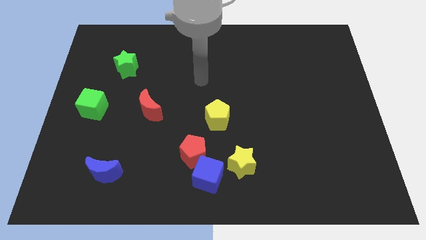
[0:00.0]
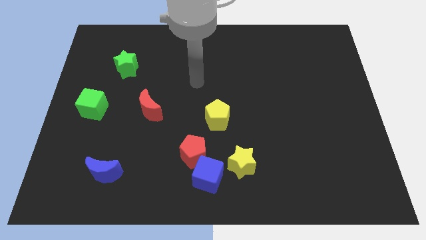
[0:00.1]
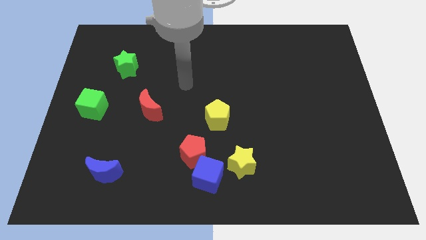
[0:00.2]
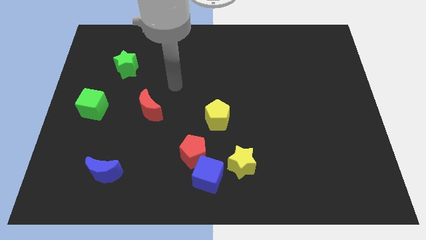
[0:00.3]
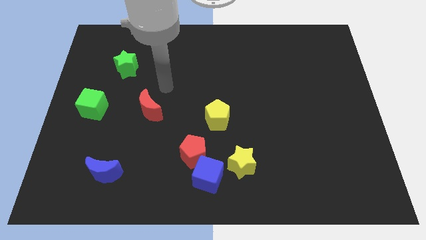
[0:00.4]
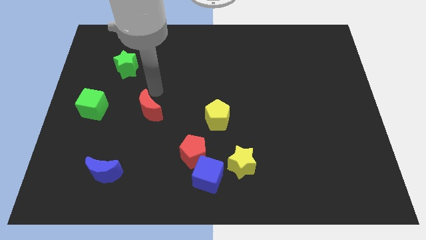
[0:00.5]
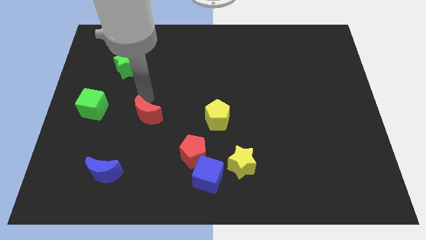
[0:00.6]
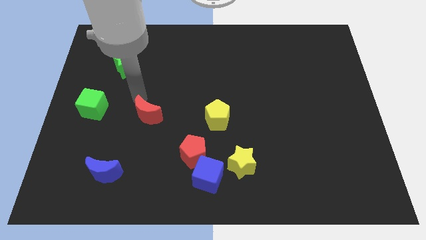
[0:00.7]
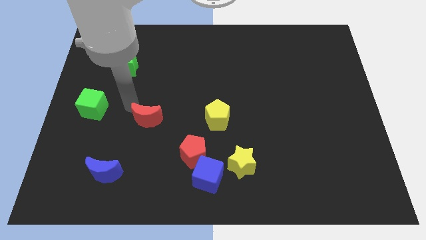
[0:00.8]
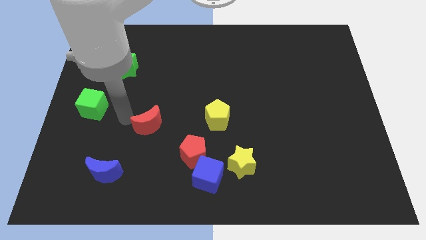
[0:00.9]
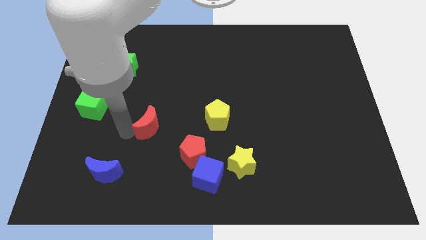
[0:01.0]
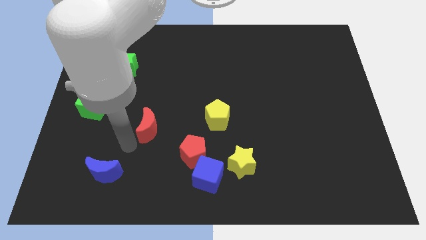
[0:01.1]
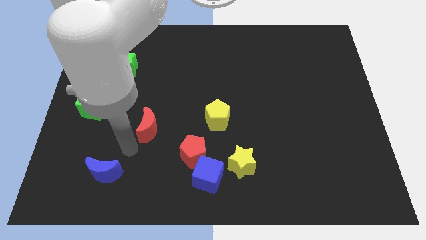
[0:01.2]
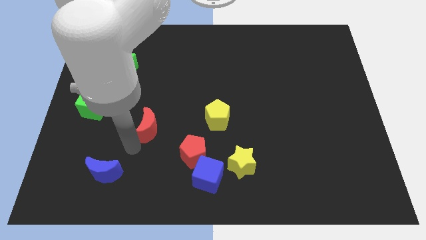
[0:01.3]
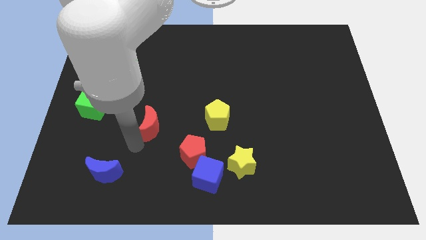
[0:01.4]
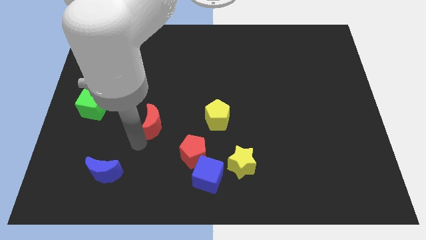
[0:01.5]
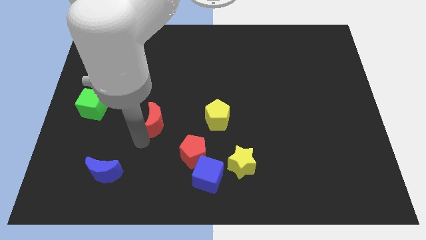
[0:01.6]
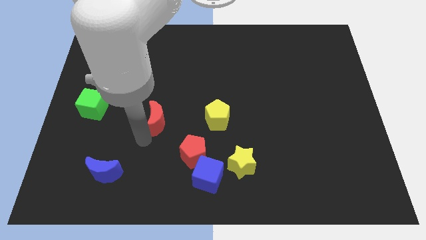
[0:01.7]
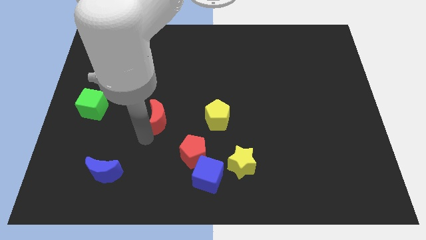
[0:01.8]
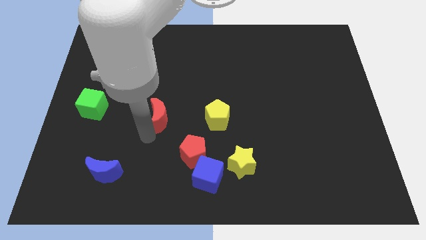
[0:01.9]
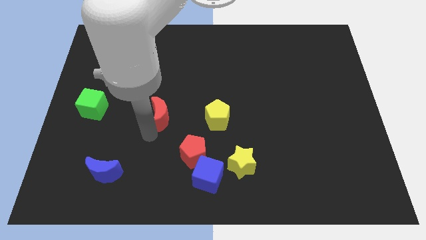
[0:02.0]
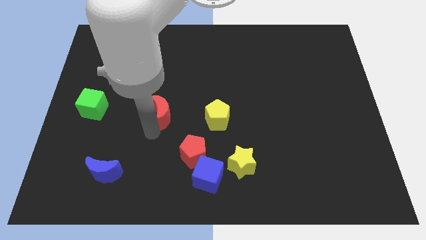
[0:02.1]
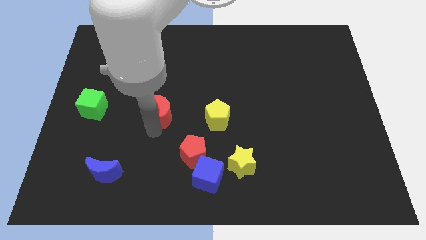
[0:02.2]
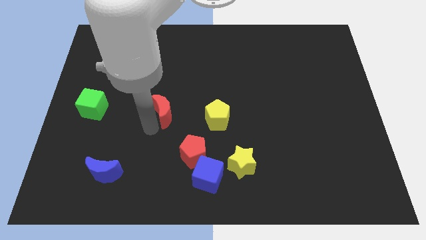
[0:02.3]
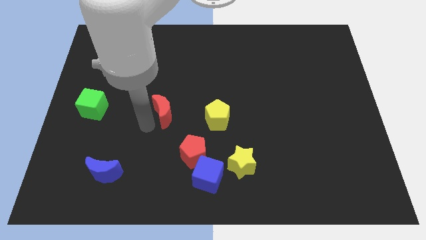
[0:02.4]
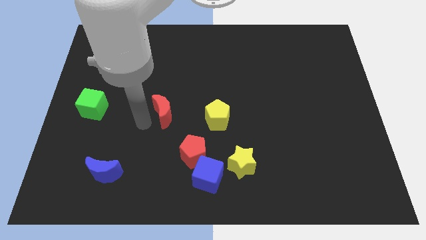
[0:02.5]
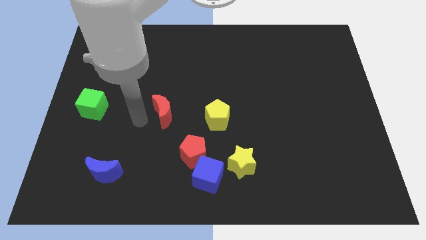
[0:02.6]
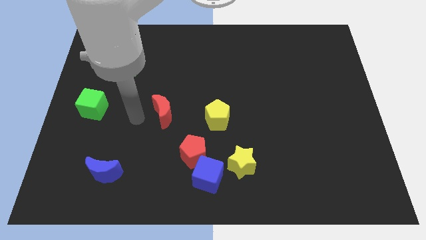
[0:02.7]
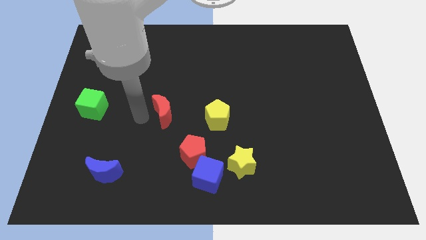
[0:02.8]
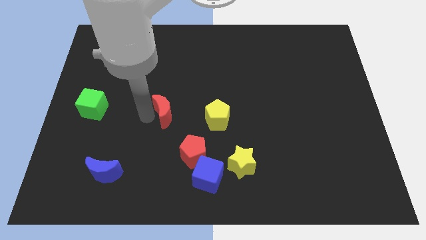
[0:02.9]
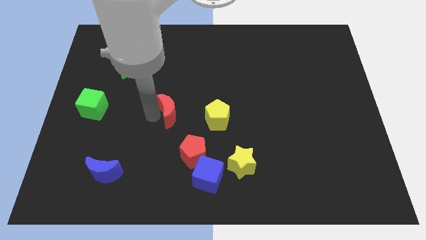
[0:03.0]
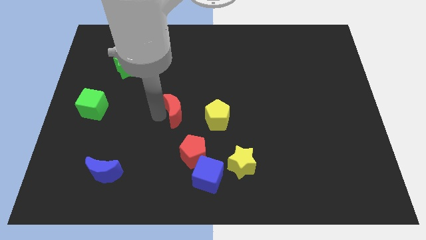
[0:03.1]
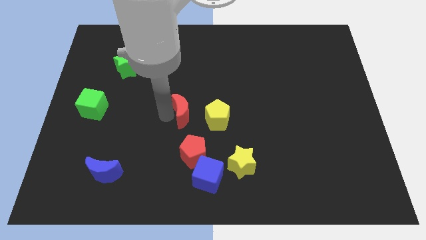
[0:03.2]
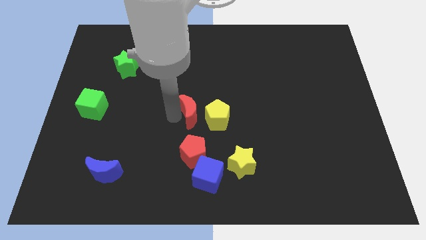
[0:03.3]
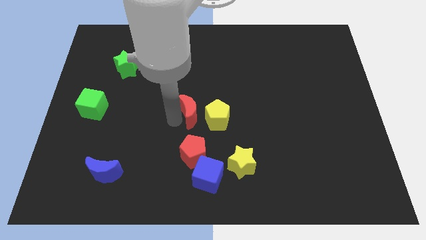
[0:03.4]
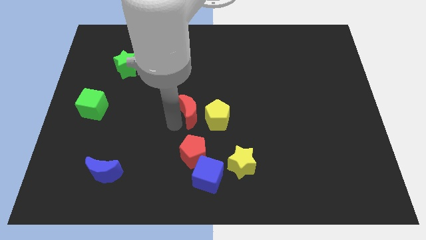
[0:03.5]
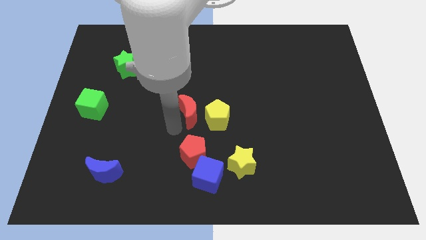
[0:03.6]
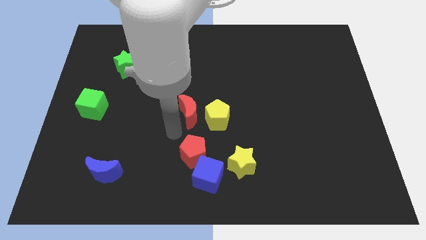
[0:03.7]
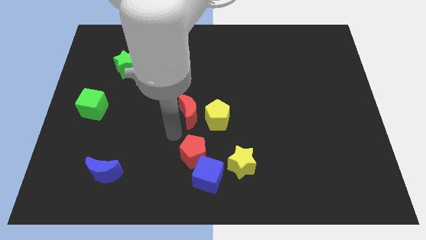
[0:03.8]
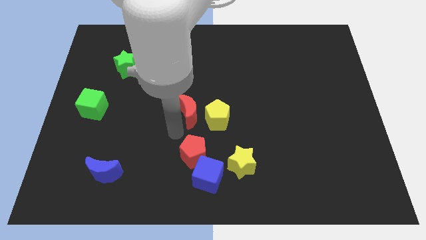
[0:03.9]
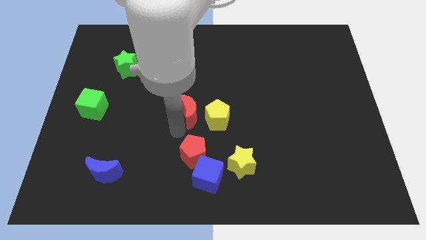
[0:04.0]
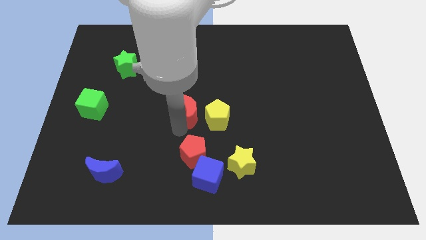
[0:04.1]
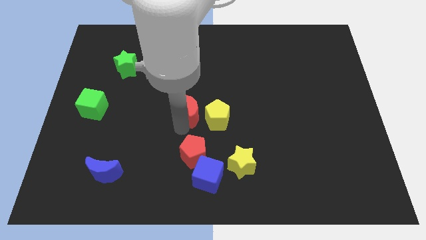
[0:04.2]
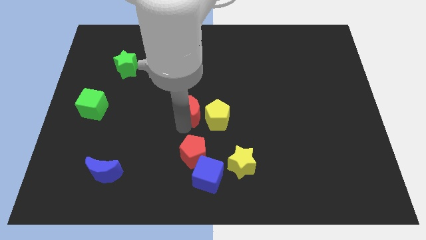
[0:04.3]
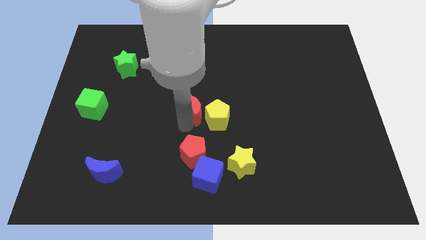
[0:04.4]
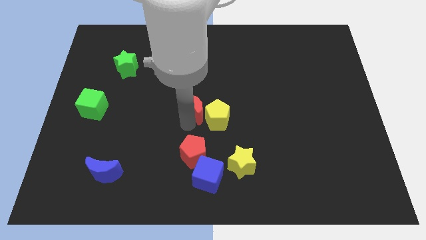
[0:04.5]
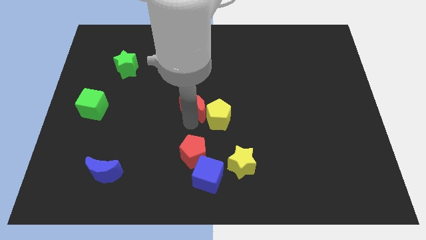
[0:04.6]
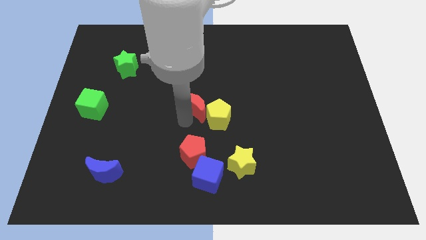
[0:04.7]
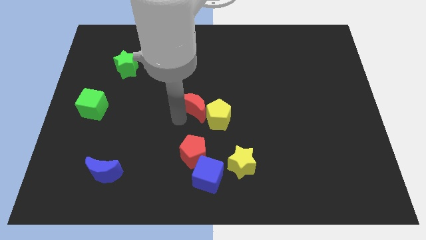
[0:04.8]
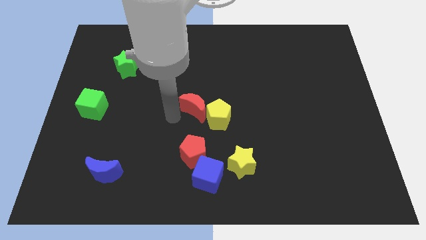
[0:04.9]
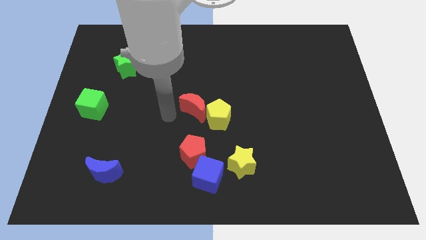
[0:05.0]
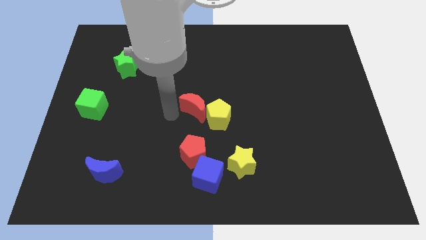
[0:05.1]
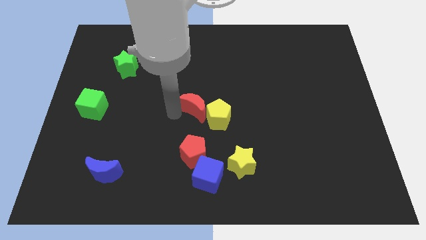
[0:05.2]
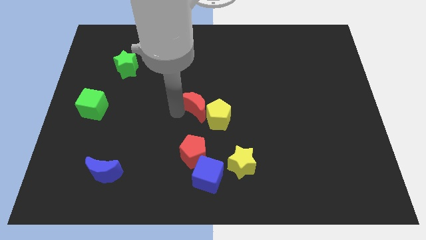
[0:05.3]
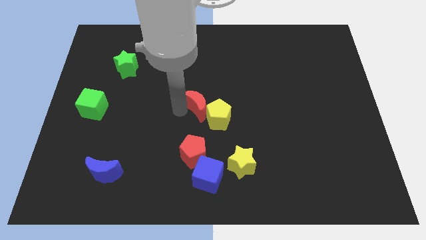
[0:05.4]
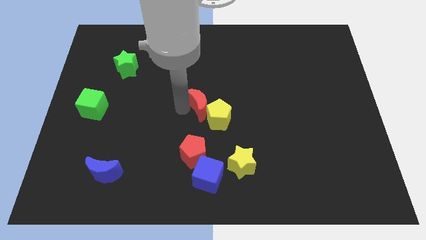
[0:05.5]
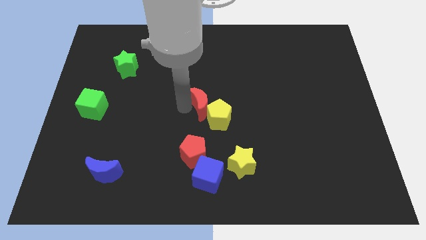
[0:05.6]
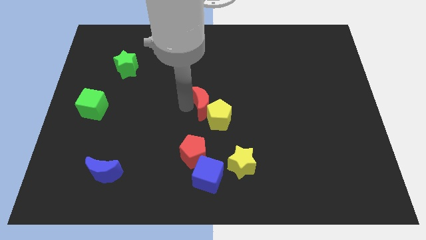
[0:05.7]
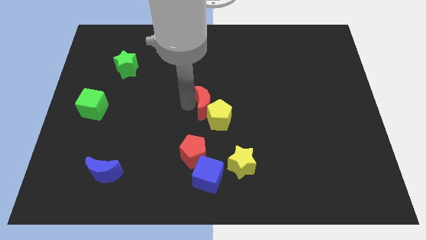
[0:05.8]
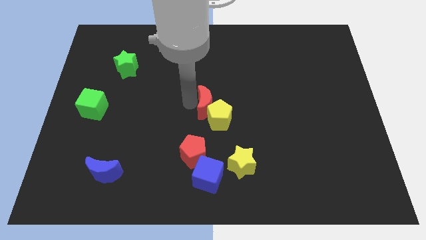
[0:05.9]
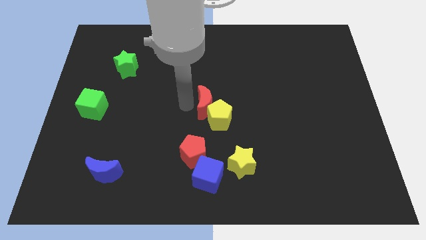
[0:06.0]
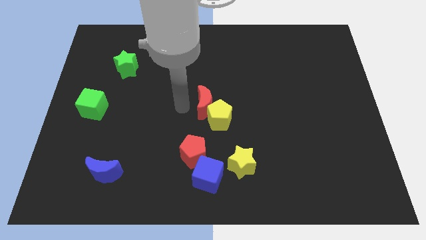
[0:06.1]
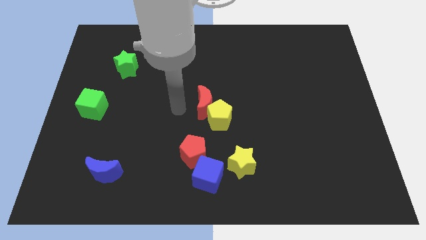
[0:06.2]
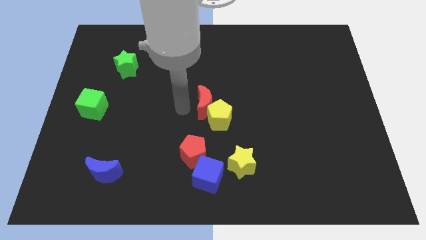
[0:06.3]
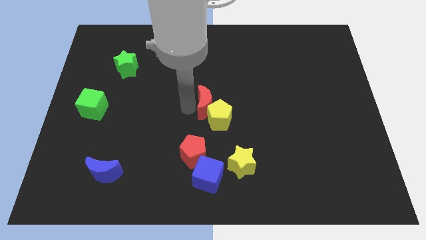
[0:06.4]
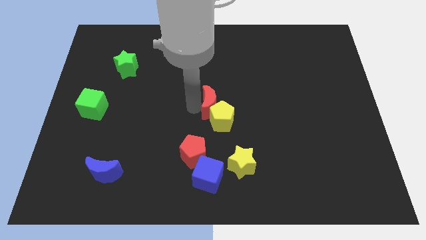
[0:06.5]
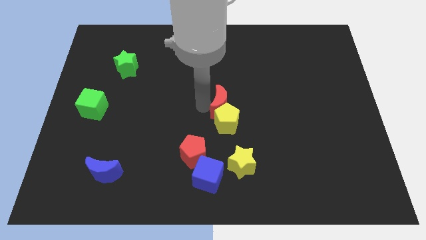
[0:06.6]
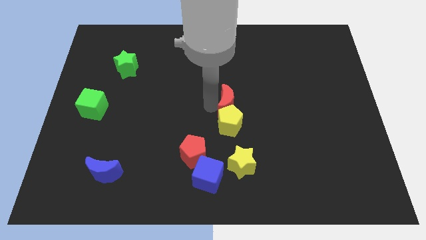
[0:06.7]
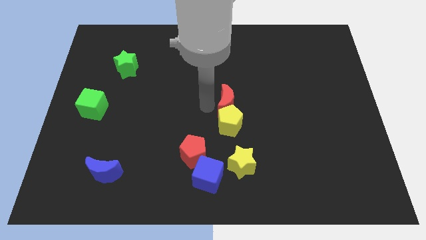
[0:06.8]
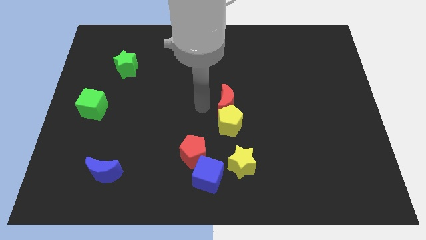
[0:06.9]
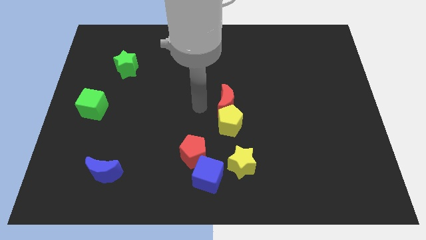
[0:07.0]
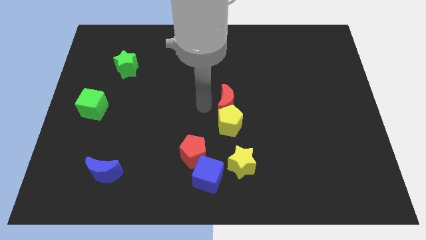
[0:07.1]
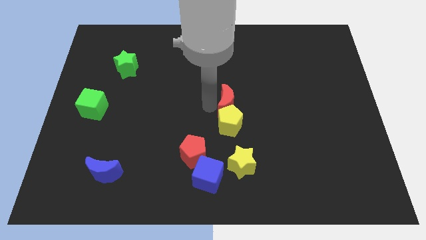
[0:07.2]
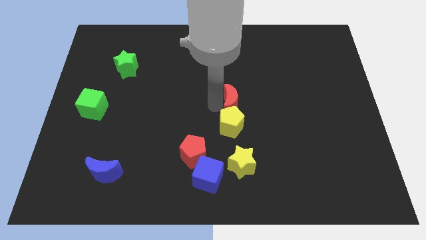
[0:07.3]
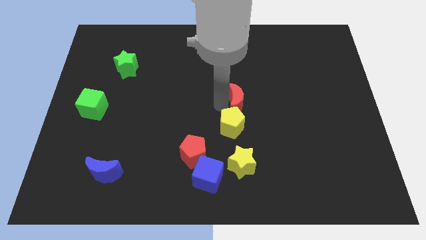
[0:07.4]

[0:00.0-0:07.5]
slide the red moon right

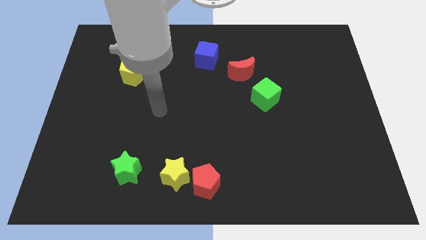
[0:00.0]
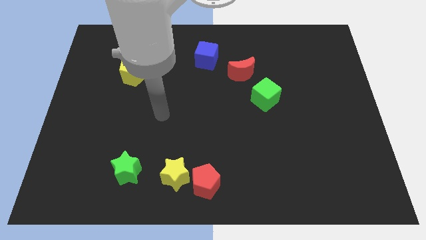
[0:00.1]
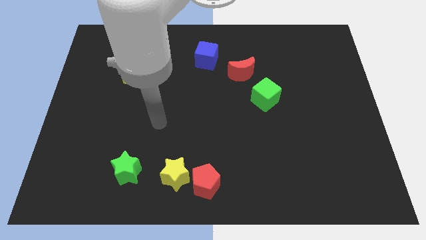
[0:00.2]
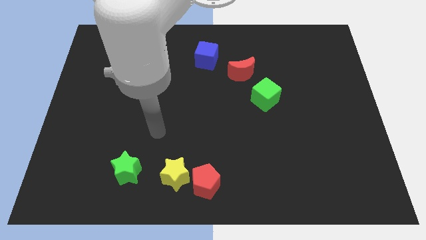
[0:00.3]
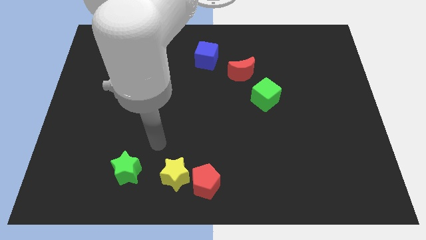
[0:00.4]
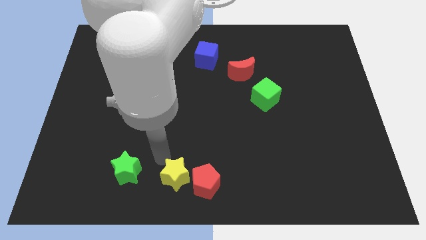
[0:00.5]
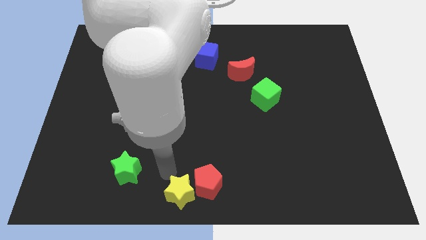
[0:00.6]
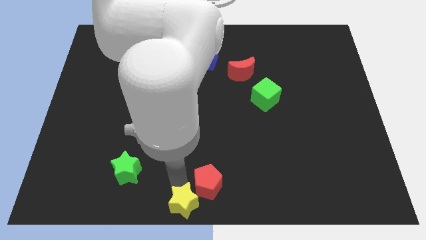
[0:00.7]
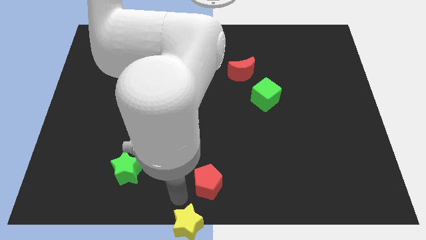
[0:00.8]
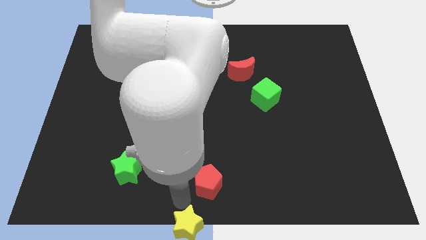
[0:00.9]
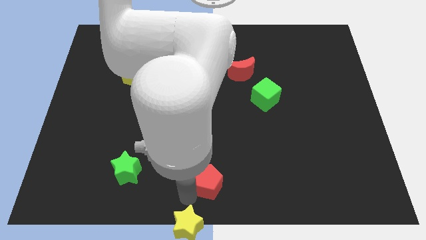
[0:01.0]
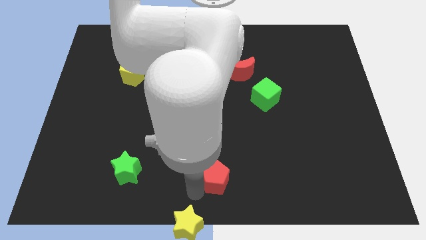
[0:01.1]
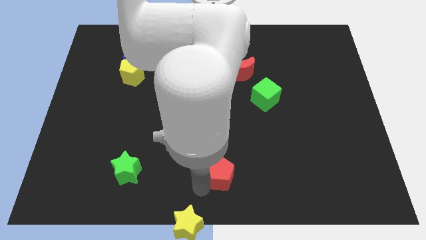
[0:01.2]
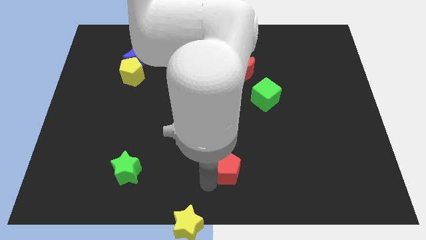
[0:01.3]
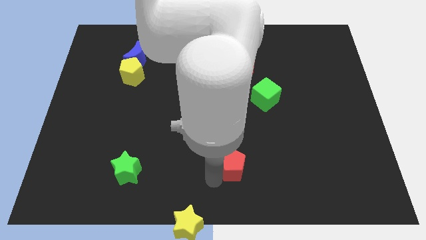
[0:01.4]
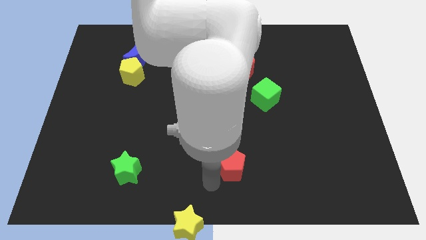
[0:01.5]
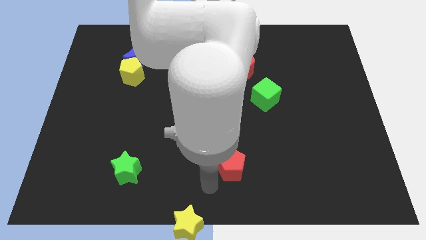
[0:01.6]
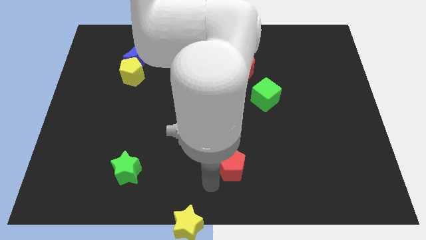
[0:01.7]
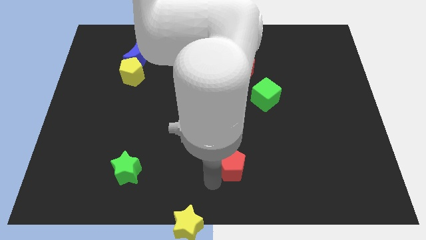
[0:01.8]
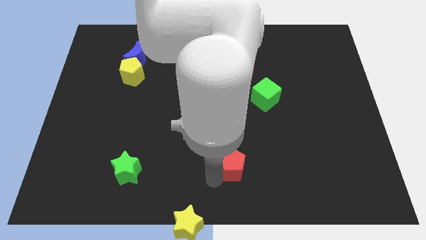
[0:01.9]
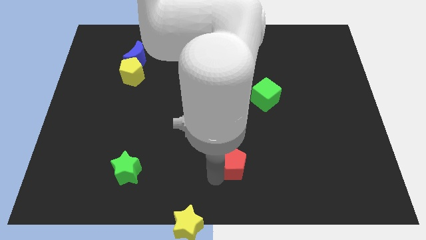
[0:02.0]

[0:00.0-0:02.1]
slightly slide the red pentagon up and to the right diagonally
